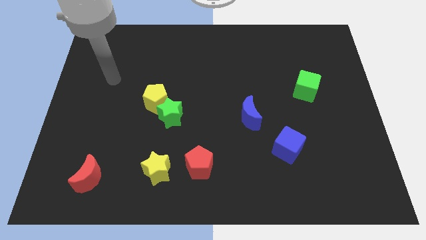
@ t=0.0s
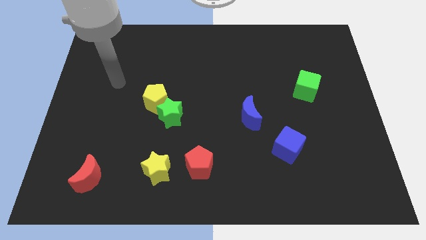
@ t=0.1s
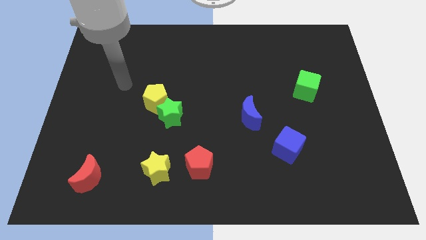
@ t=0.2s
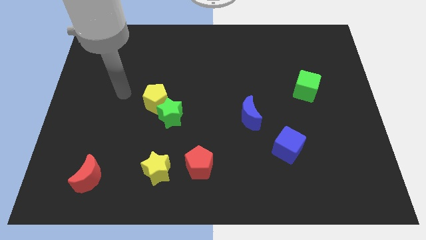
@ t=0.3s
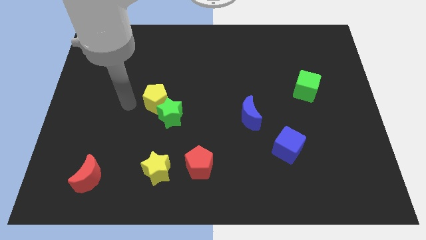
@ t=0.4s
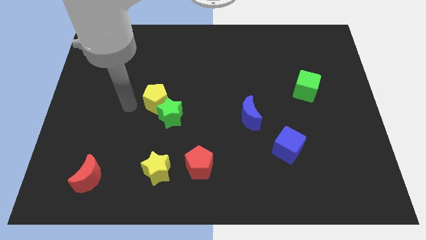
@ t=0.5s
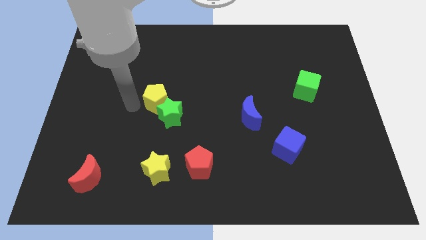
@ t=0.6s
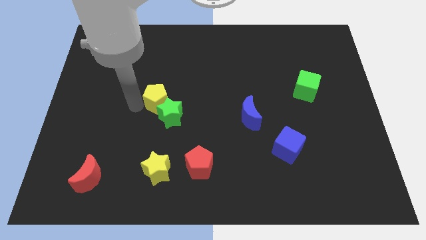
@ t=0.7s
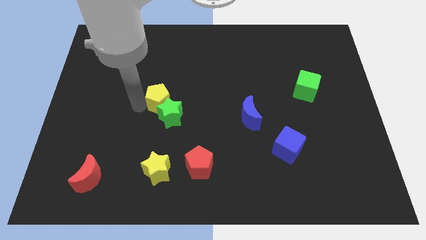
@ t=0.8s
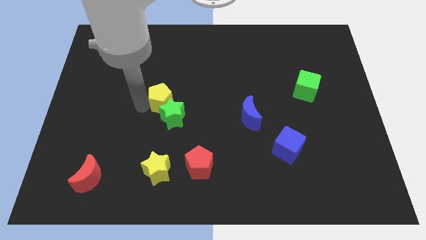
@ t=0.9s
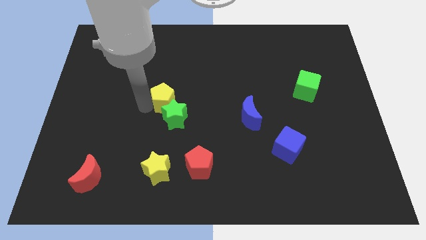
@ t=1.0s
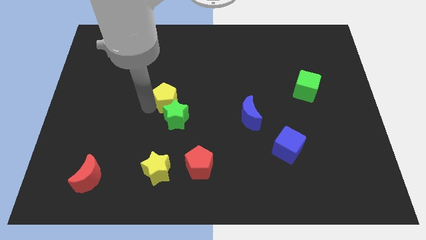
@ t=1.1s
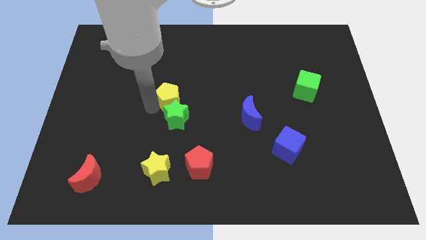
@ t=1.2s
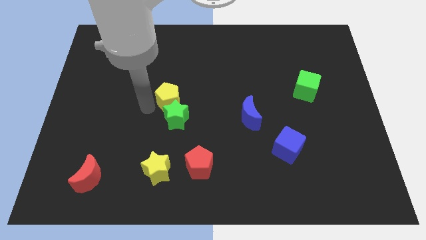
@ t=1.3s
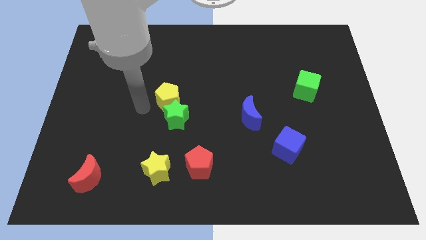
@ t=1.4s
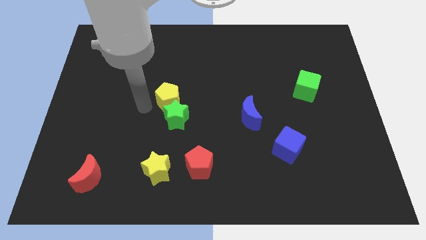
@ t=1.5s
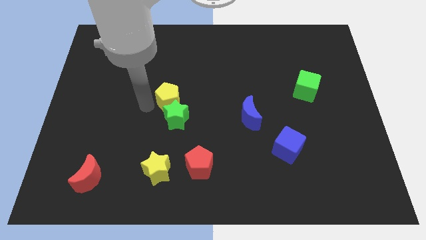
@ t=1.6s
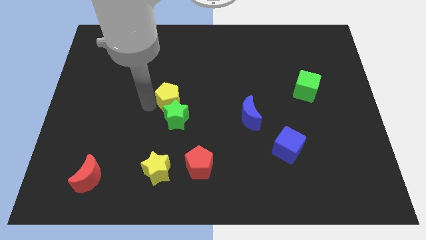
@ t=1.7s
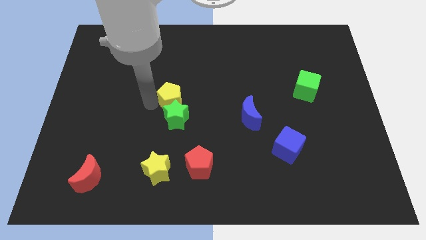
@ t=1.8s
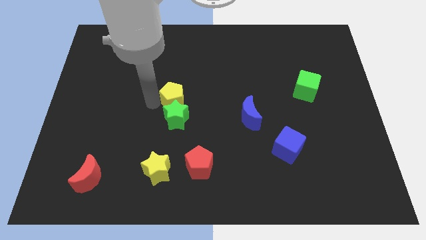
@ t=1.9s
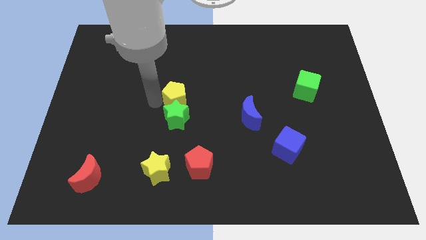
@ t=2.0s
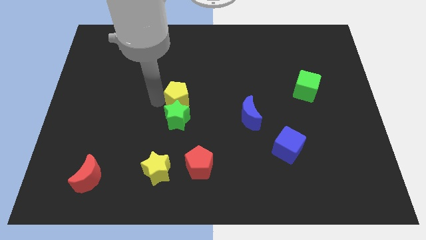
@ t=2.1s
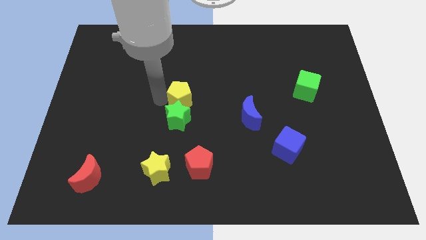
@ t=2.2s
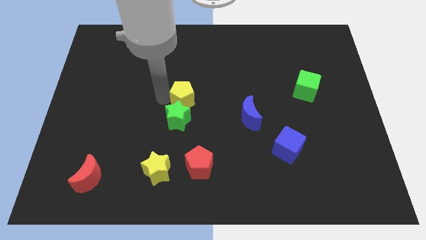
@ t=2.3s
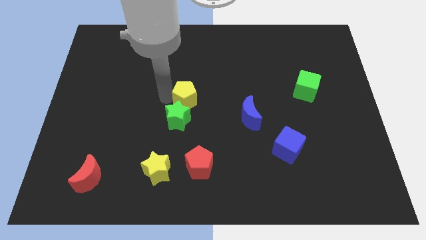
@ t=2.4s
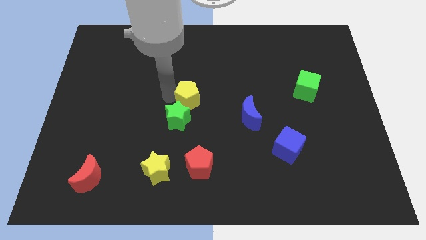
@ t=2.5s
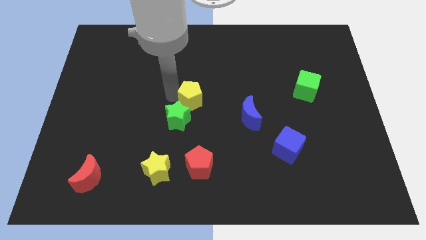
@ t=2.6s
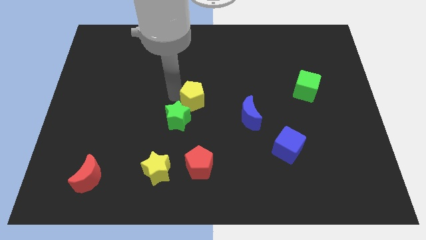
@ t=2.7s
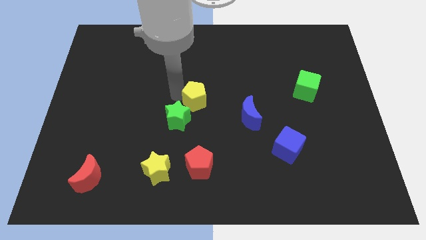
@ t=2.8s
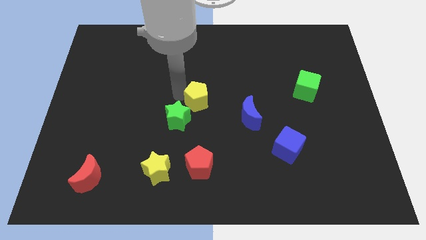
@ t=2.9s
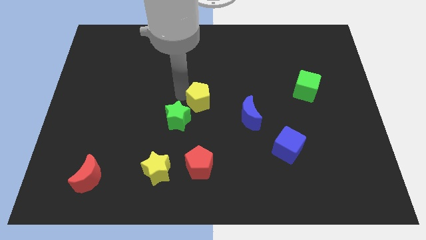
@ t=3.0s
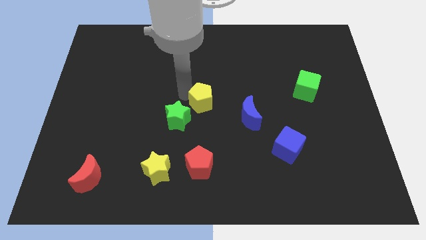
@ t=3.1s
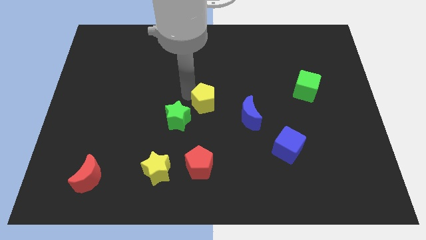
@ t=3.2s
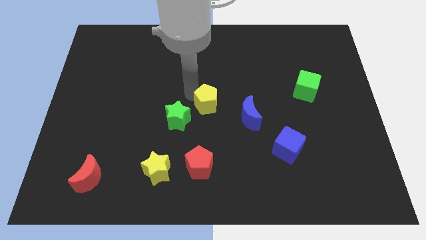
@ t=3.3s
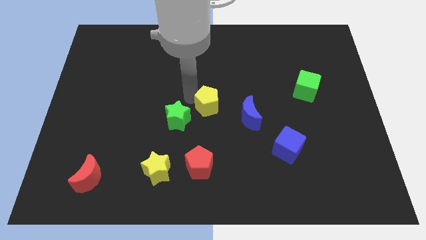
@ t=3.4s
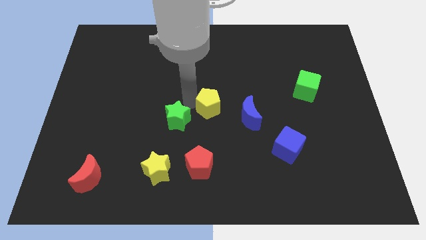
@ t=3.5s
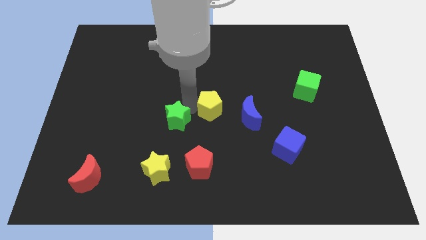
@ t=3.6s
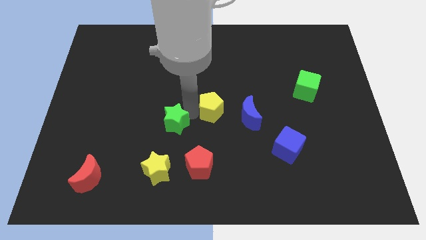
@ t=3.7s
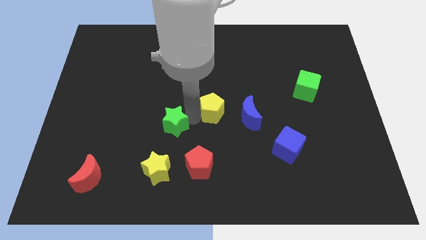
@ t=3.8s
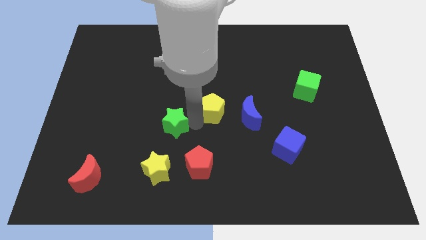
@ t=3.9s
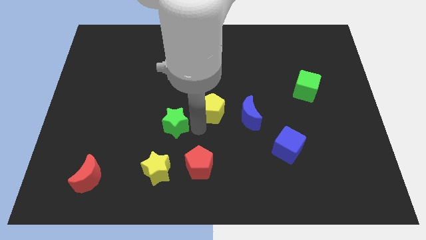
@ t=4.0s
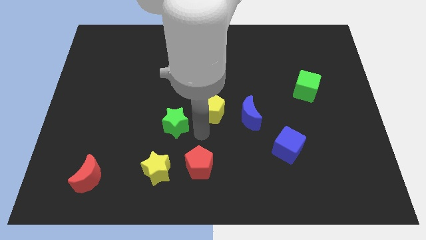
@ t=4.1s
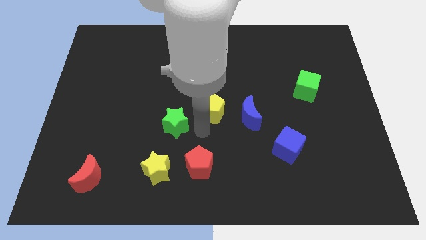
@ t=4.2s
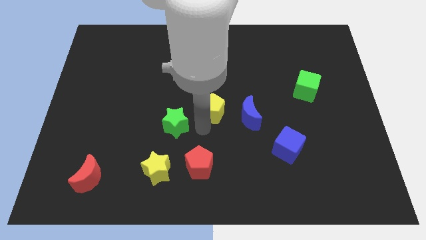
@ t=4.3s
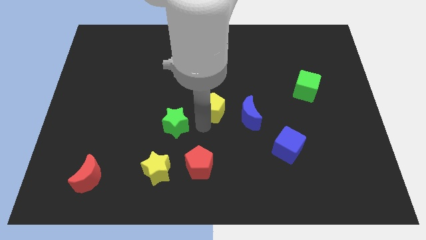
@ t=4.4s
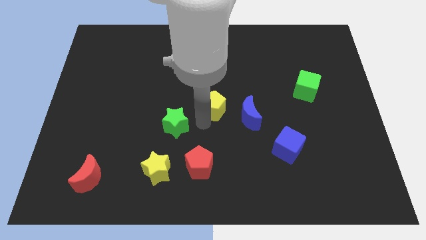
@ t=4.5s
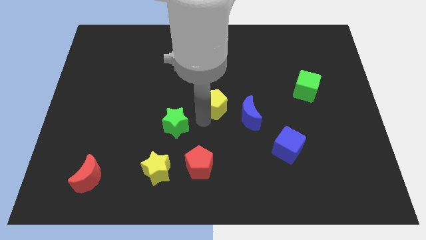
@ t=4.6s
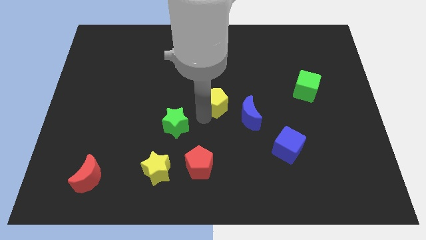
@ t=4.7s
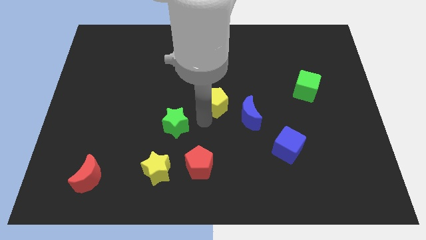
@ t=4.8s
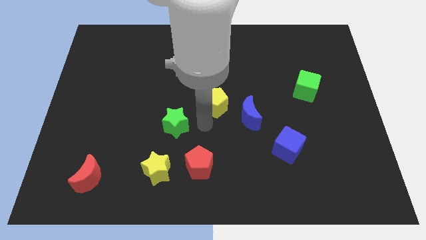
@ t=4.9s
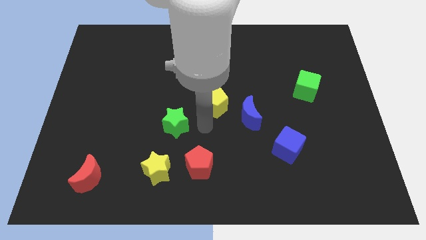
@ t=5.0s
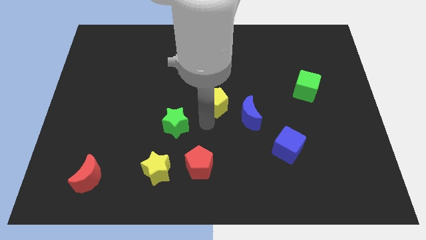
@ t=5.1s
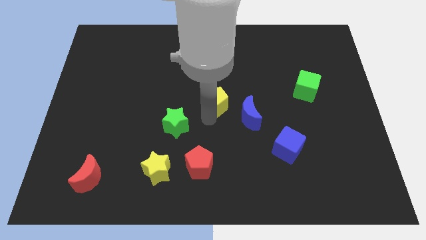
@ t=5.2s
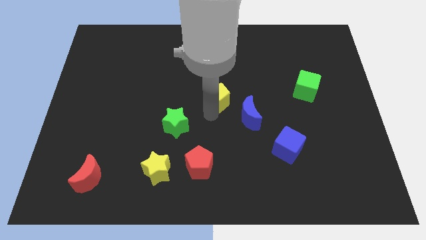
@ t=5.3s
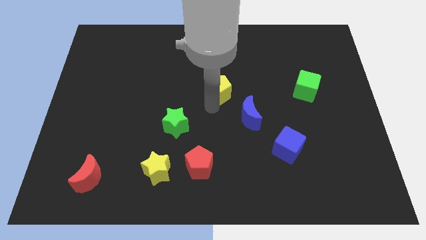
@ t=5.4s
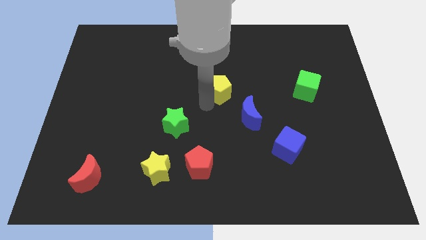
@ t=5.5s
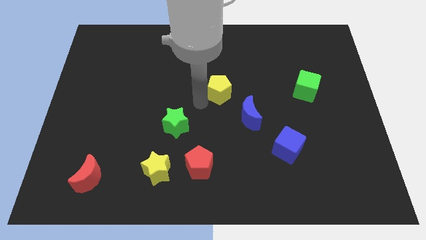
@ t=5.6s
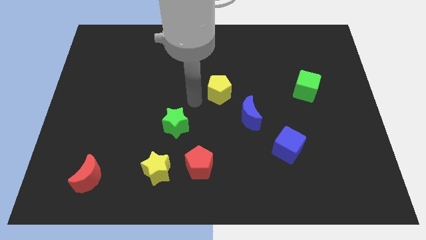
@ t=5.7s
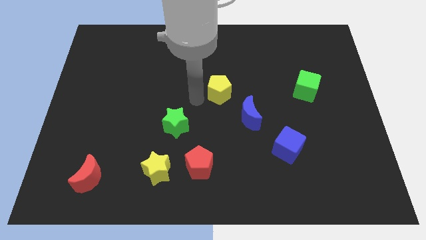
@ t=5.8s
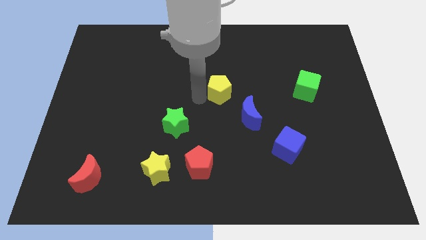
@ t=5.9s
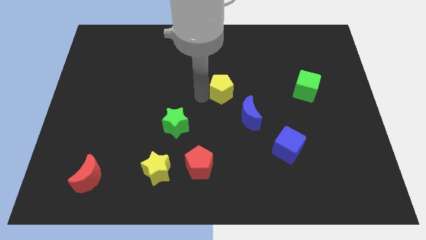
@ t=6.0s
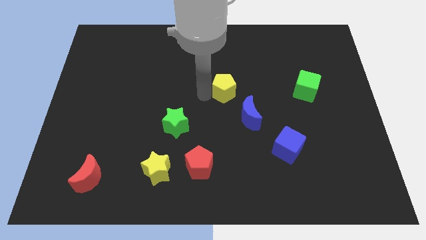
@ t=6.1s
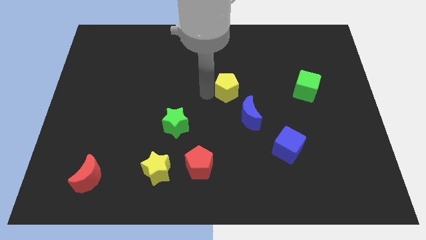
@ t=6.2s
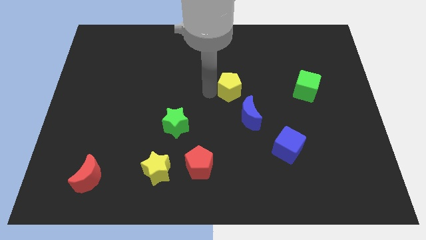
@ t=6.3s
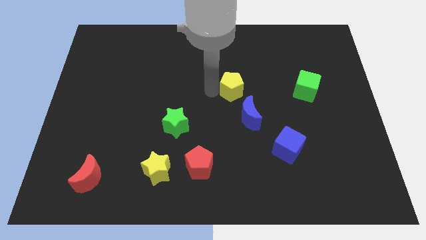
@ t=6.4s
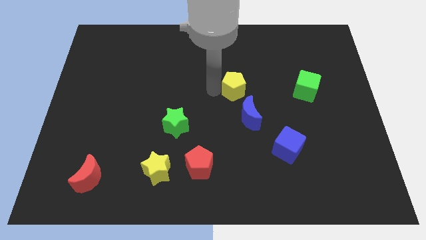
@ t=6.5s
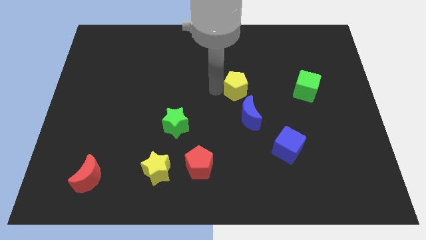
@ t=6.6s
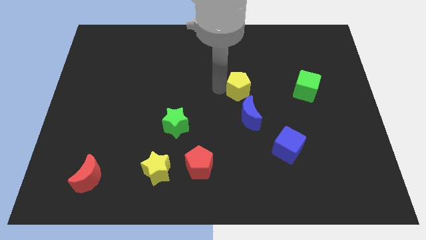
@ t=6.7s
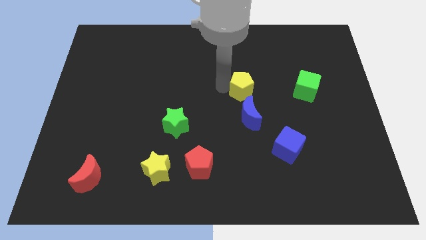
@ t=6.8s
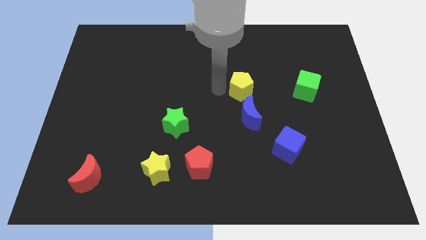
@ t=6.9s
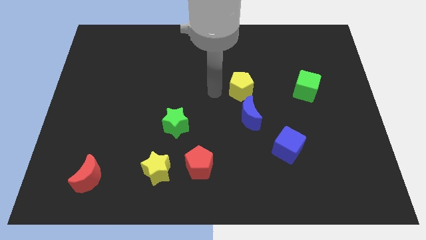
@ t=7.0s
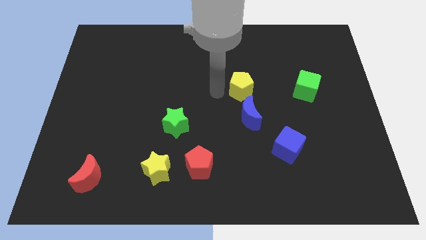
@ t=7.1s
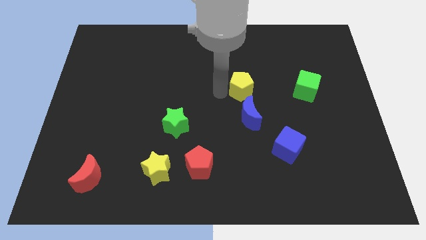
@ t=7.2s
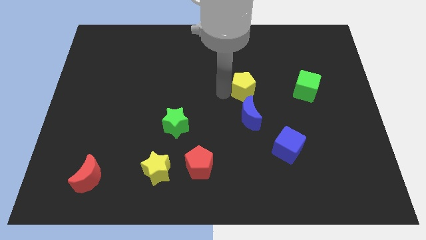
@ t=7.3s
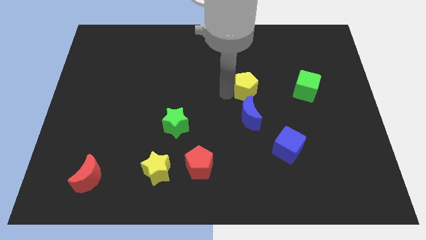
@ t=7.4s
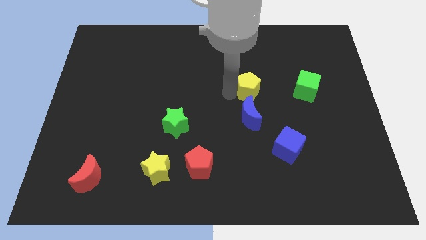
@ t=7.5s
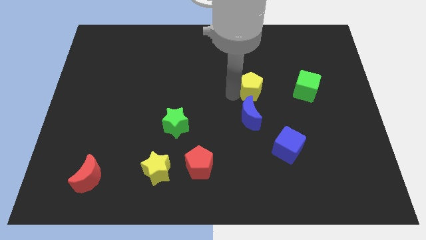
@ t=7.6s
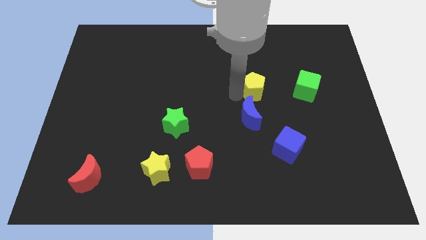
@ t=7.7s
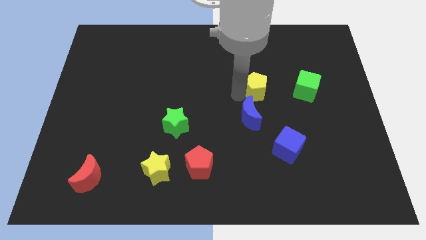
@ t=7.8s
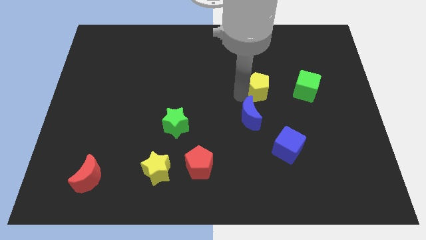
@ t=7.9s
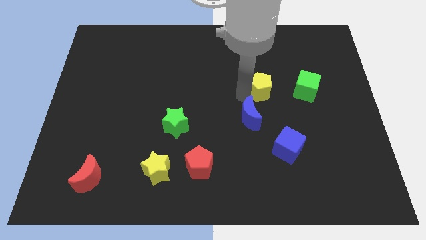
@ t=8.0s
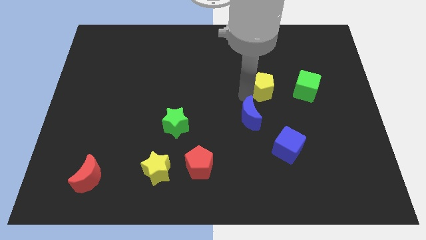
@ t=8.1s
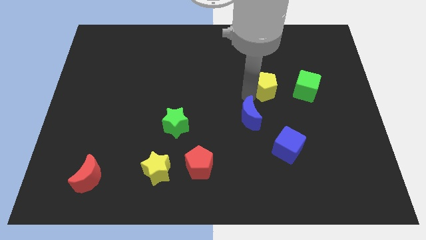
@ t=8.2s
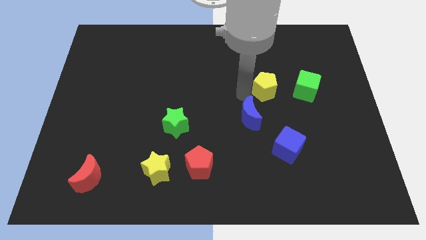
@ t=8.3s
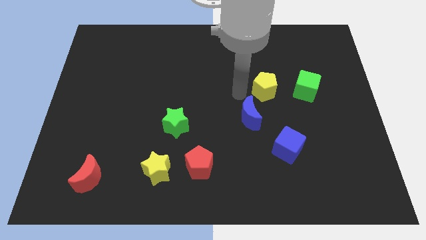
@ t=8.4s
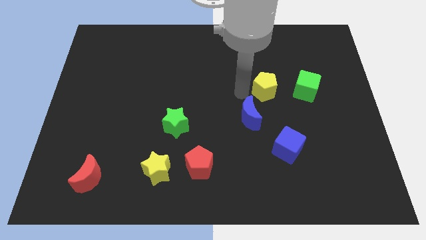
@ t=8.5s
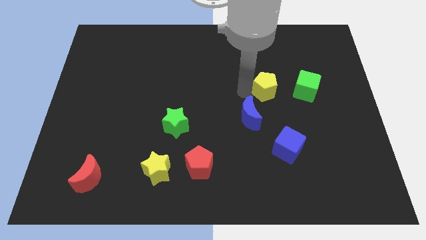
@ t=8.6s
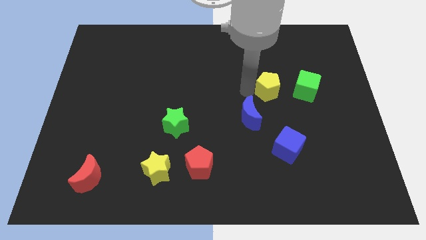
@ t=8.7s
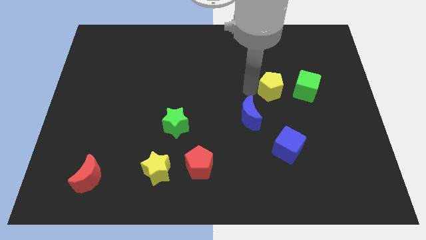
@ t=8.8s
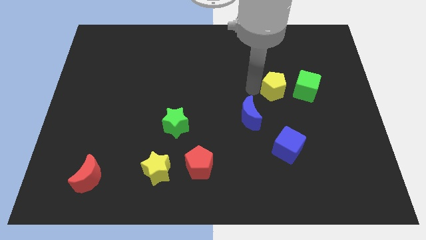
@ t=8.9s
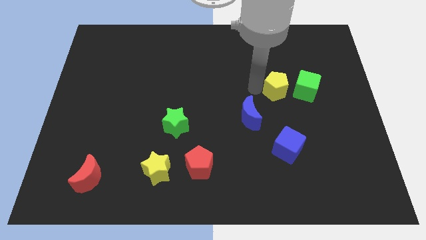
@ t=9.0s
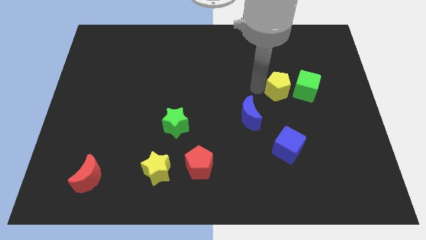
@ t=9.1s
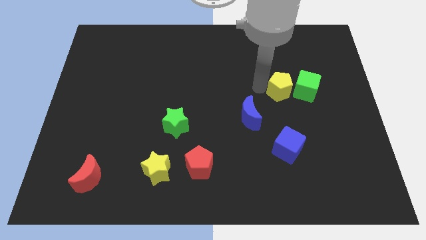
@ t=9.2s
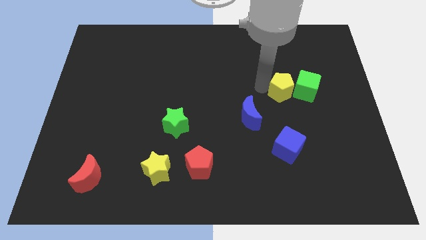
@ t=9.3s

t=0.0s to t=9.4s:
put the yellow pentagon next to the green cube
